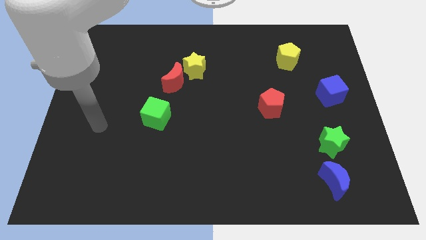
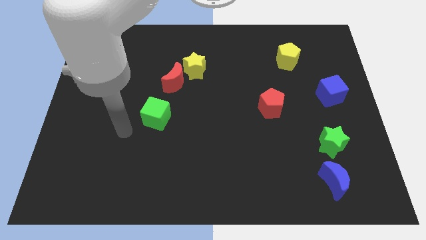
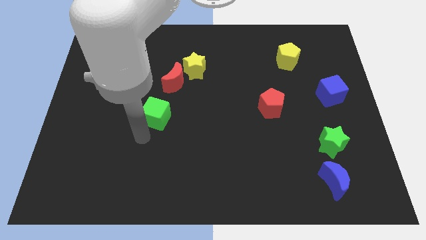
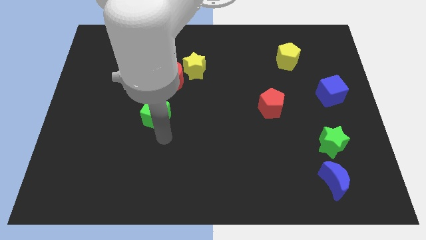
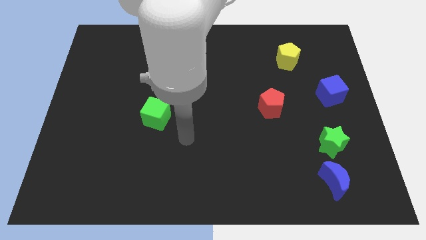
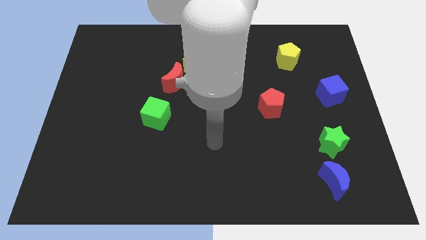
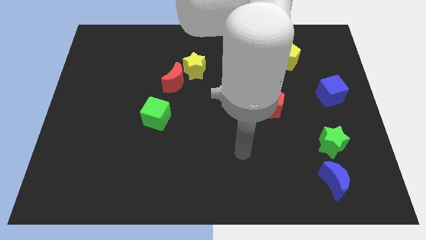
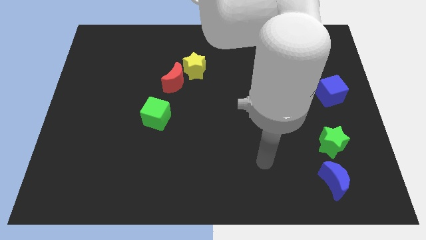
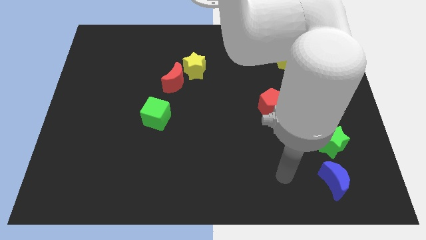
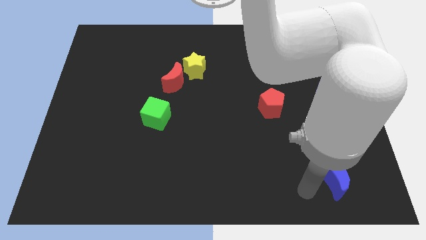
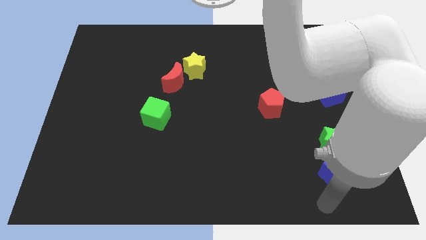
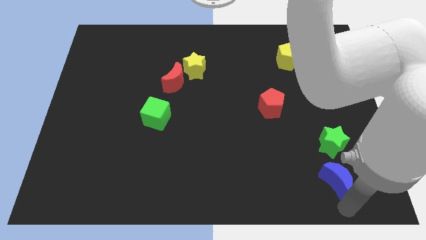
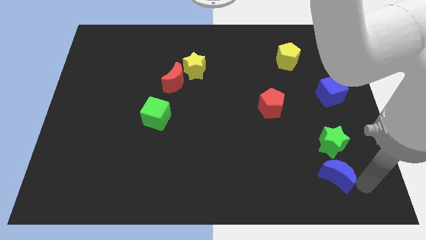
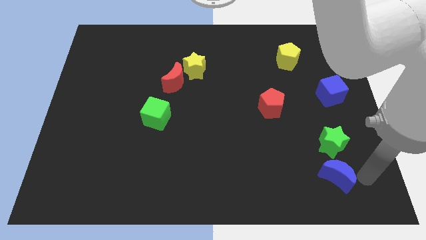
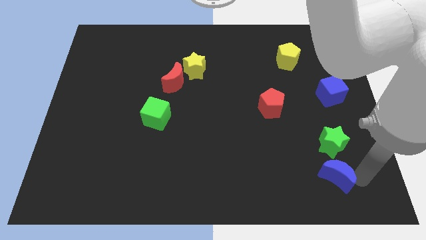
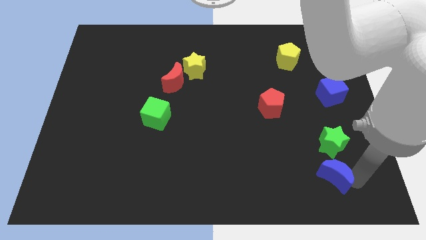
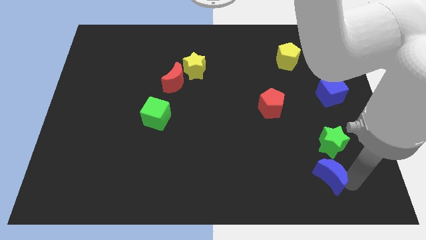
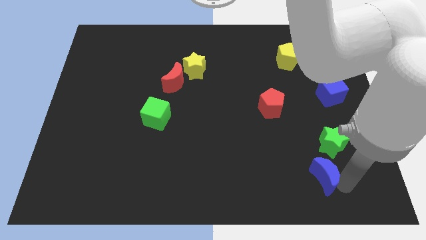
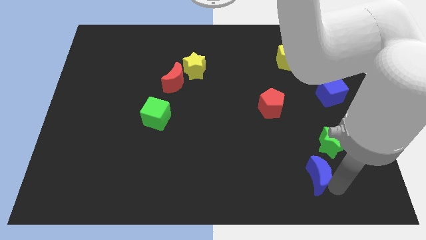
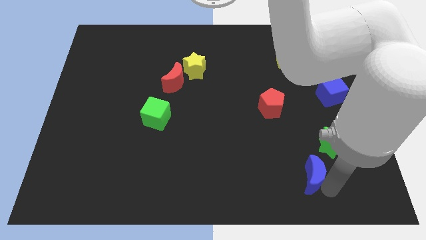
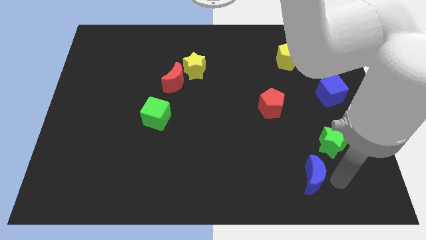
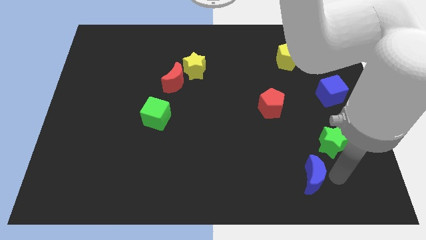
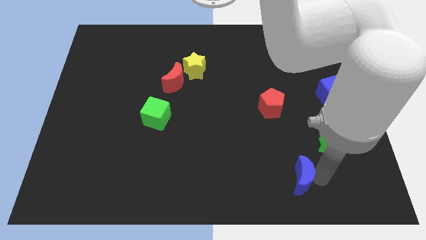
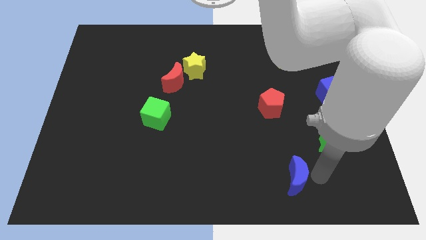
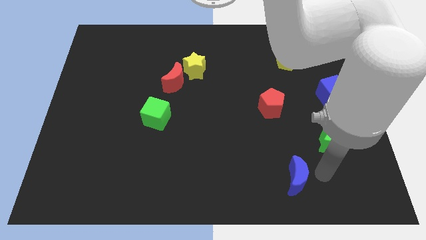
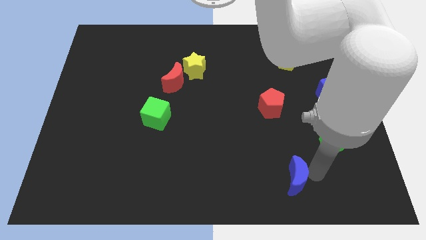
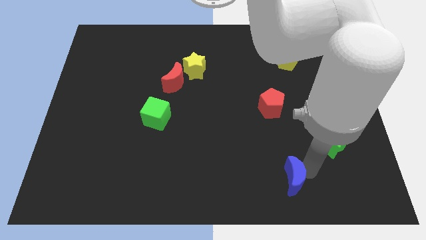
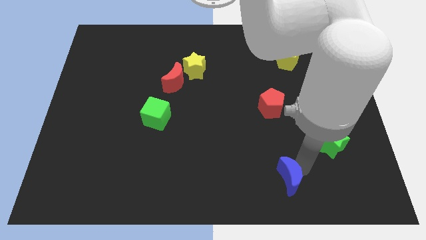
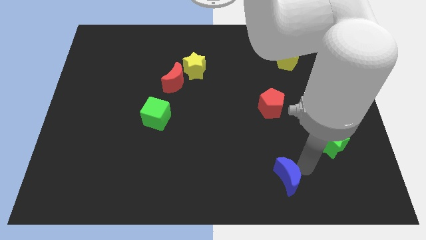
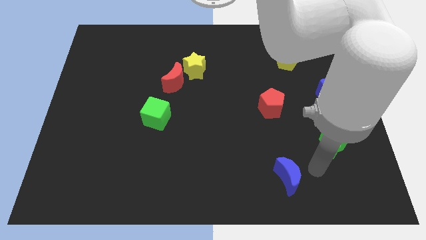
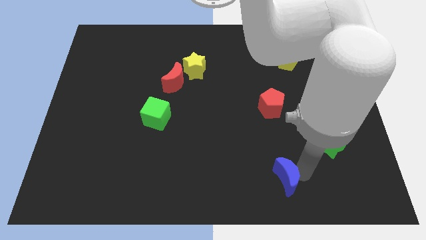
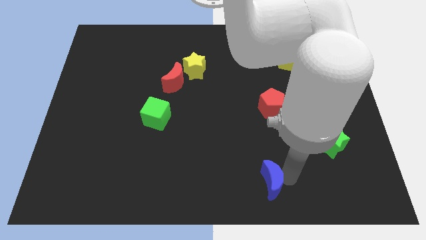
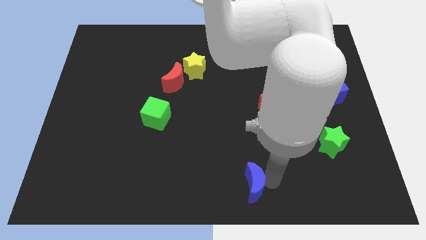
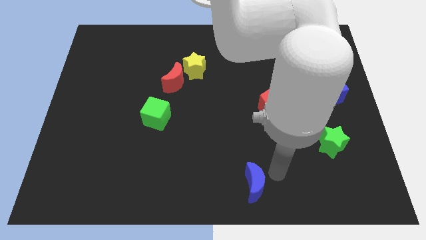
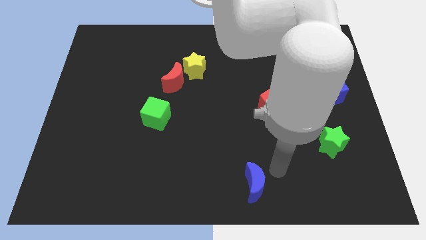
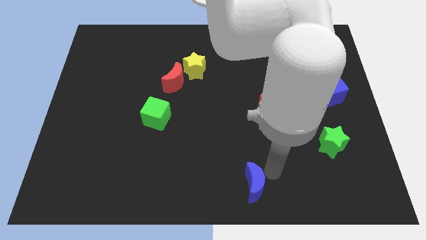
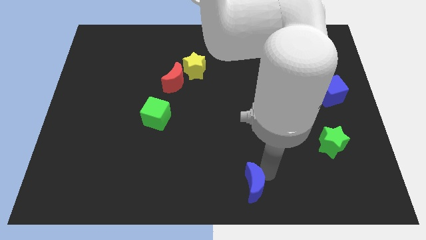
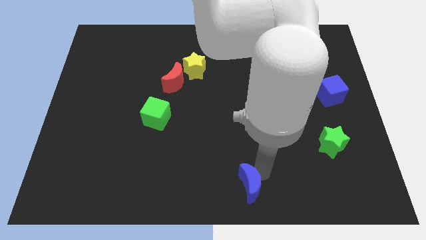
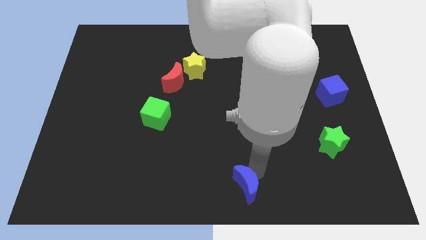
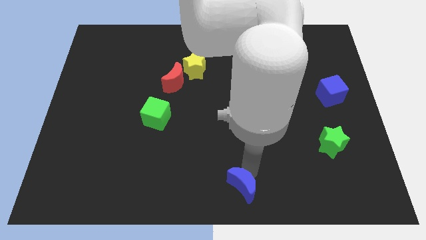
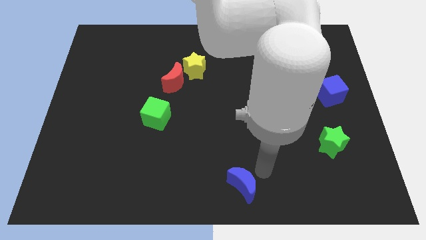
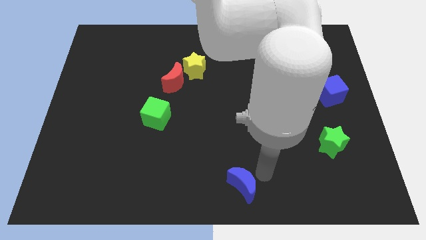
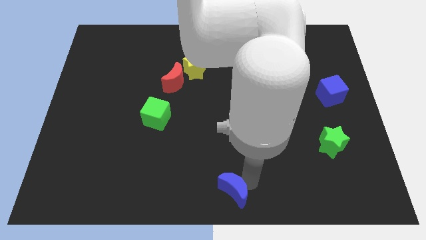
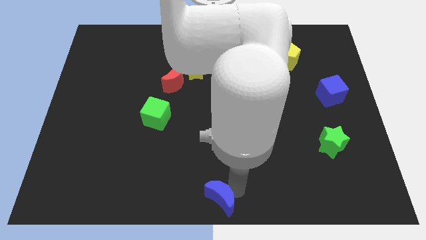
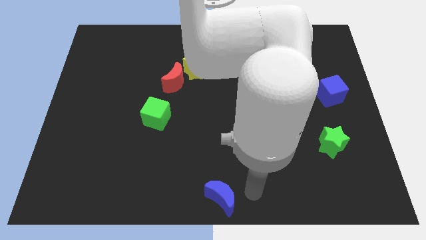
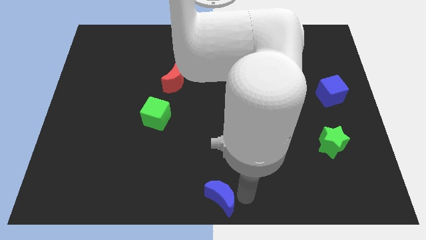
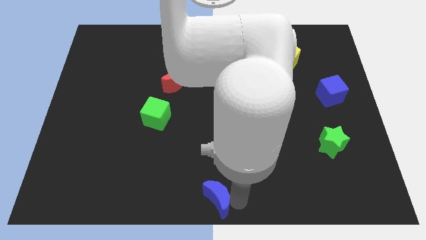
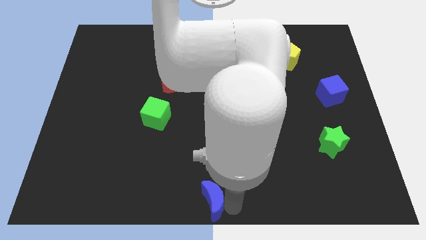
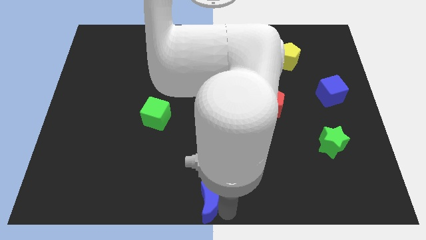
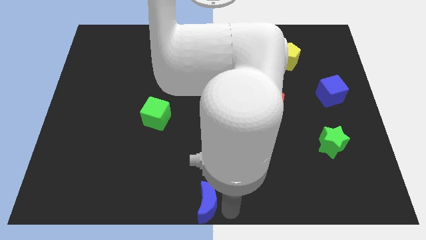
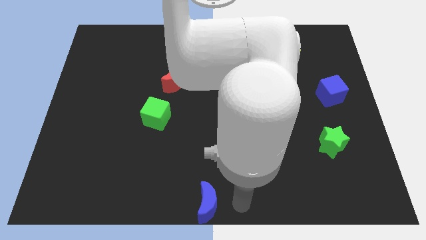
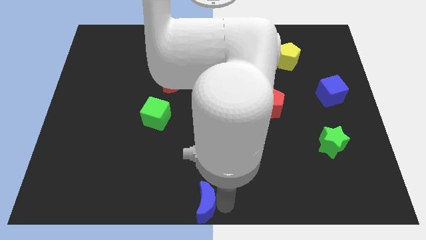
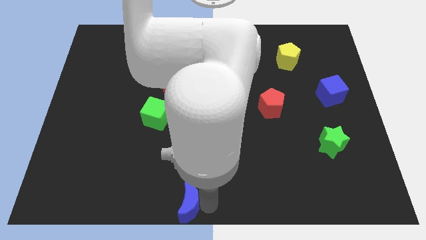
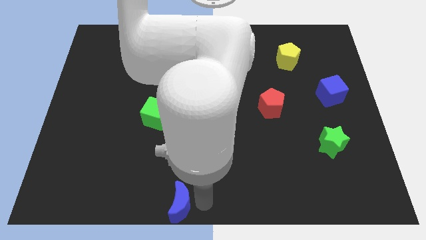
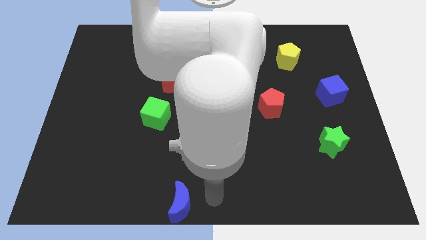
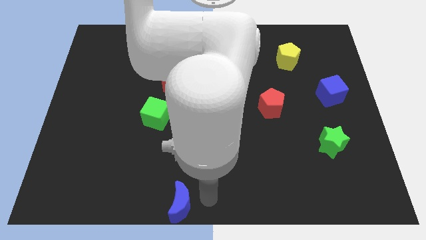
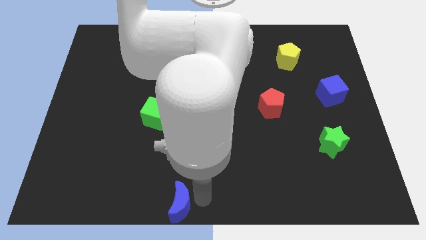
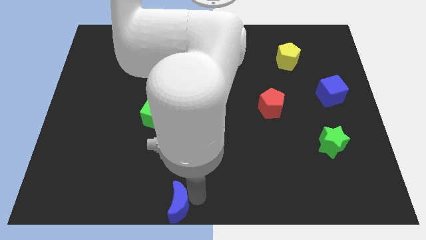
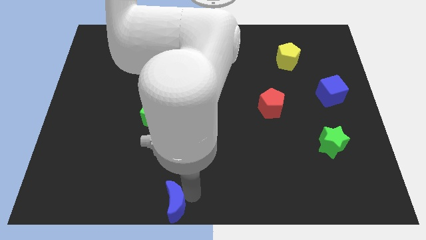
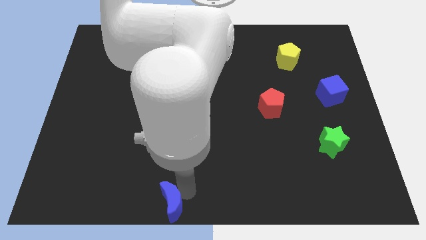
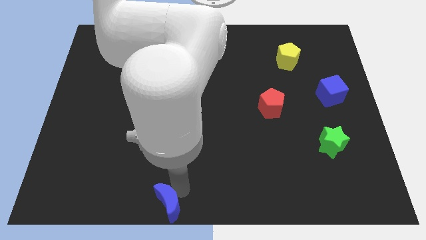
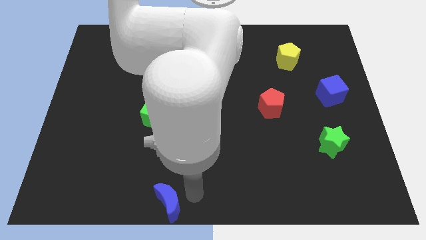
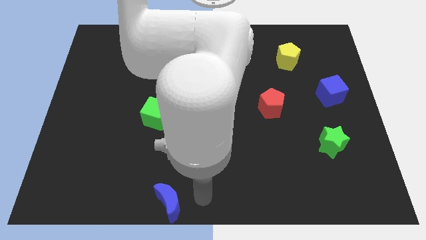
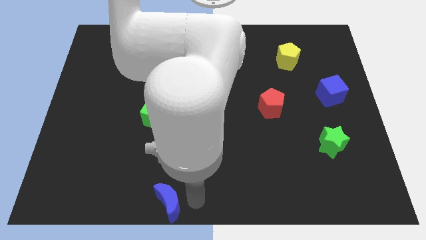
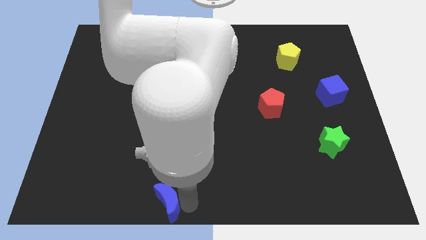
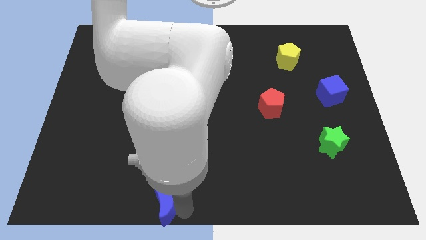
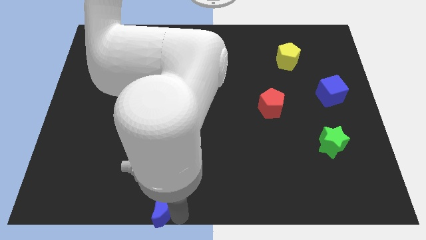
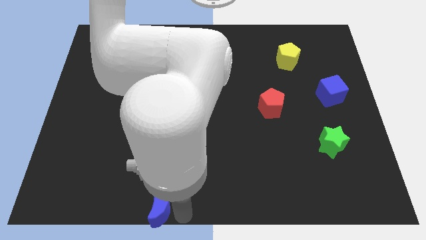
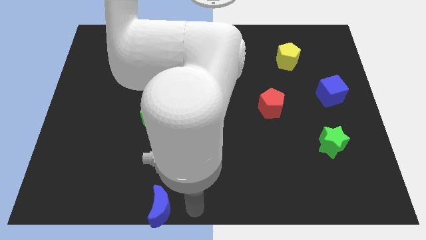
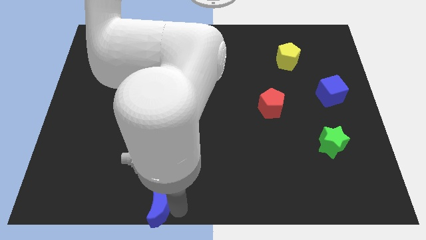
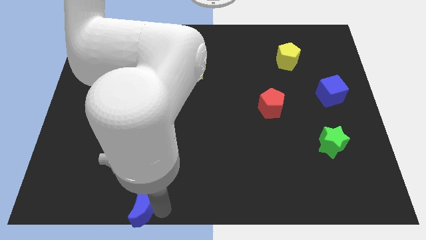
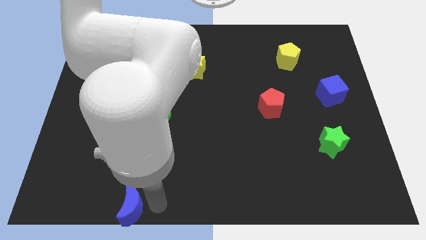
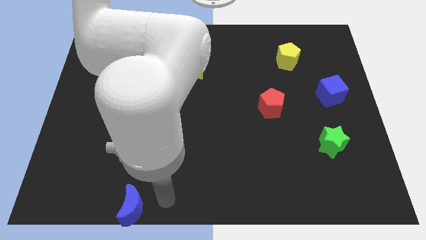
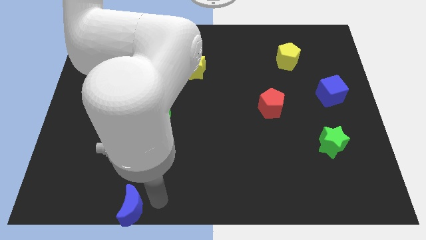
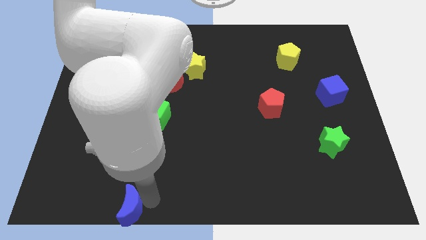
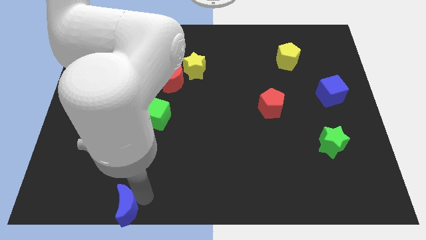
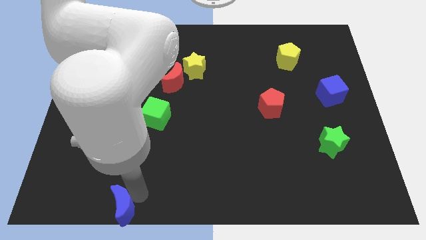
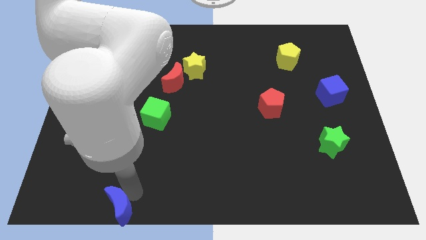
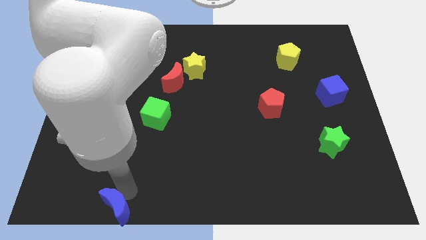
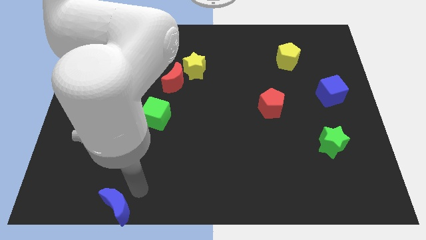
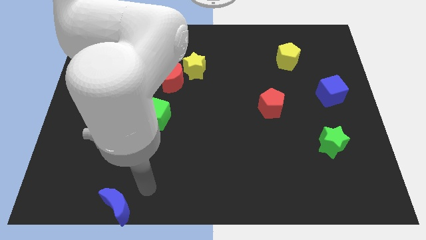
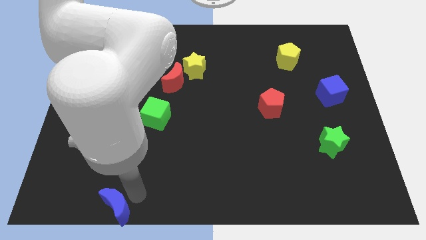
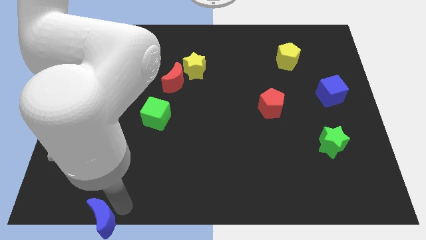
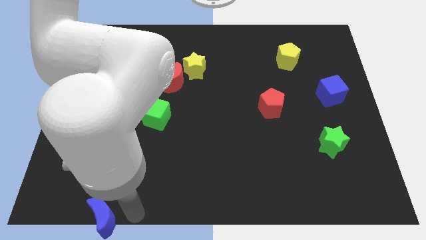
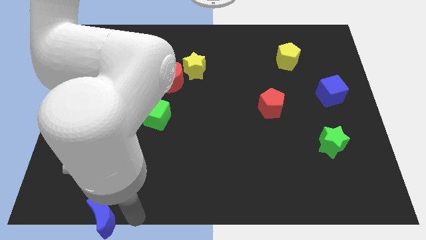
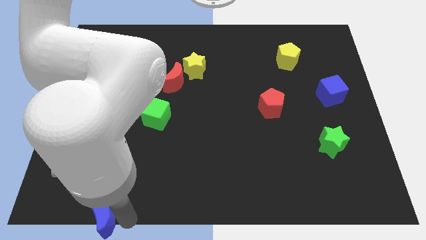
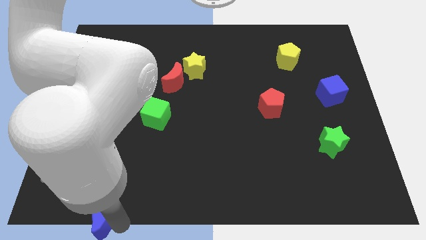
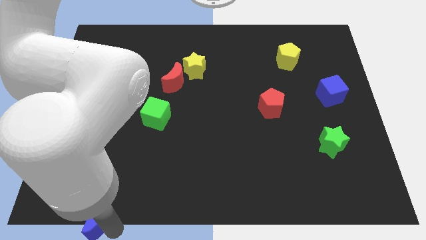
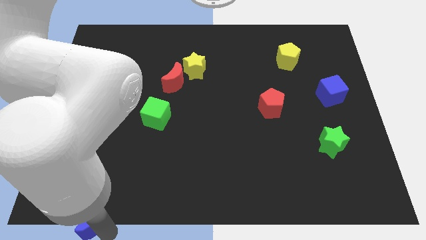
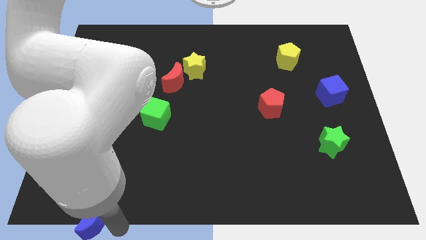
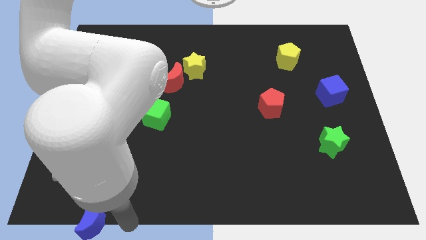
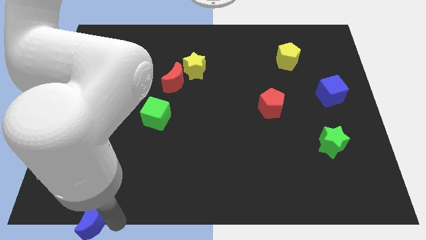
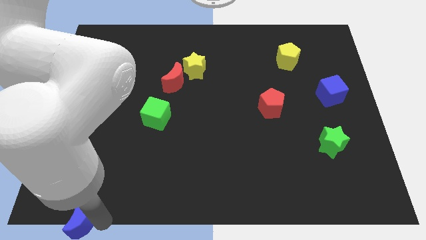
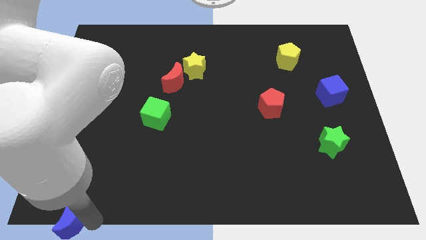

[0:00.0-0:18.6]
slide the blue moon to the bottom left
